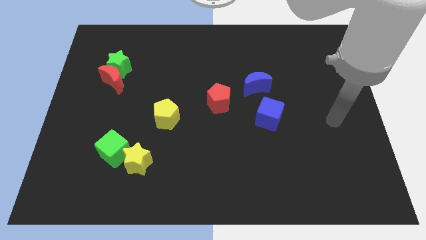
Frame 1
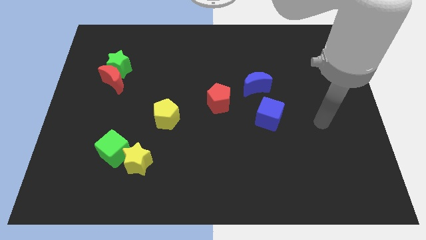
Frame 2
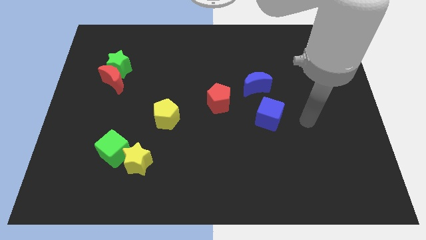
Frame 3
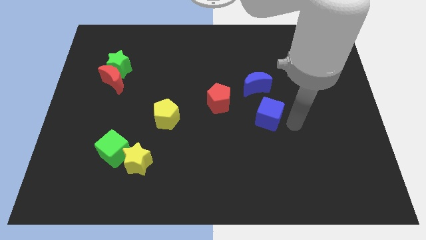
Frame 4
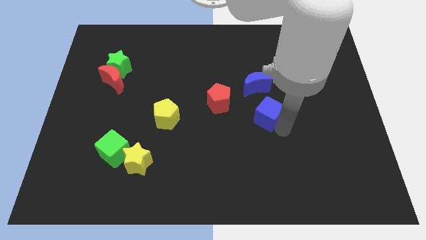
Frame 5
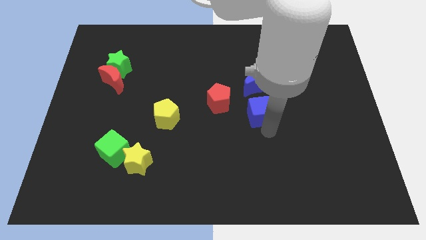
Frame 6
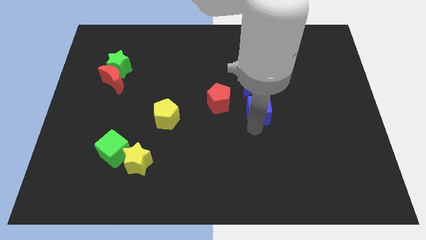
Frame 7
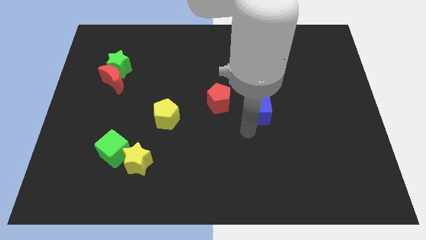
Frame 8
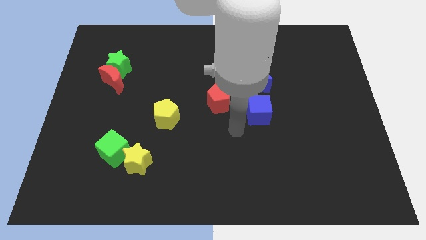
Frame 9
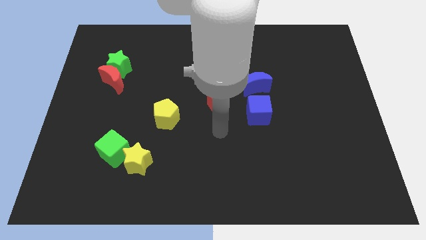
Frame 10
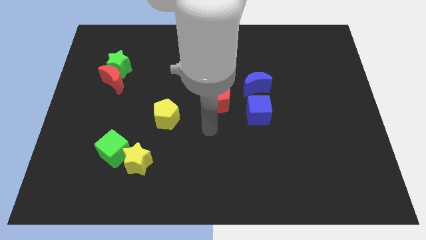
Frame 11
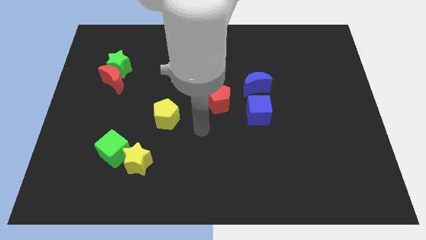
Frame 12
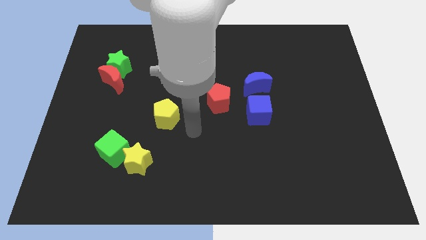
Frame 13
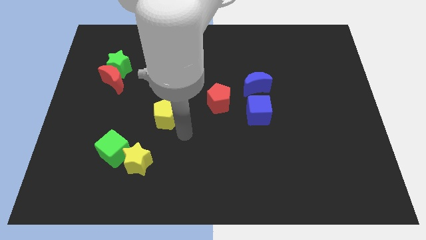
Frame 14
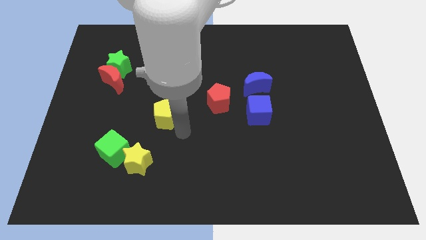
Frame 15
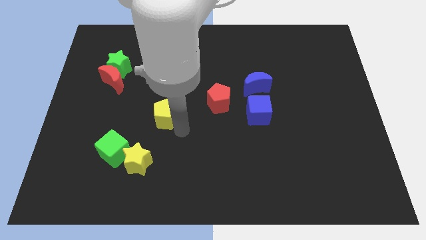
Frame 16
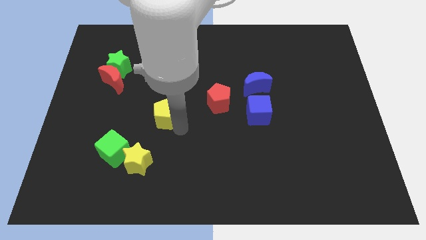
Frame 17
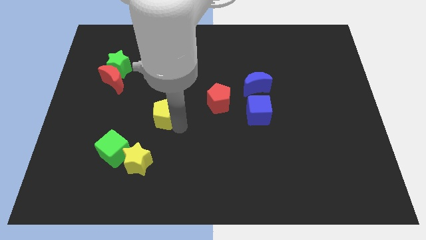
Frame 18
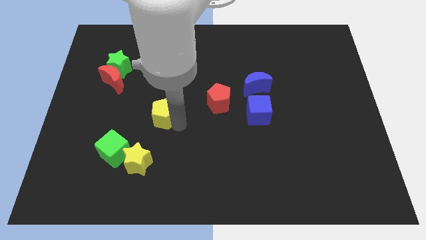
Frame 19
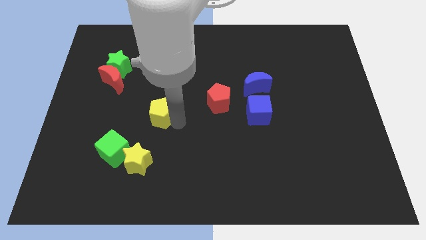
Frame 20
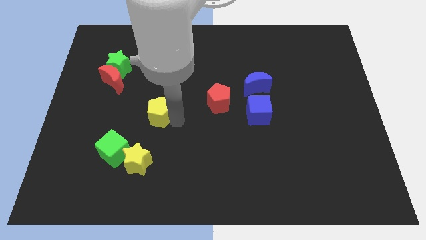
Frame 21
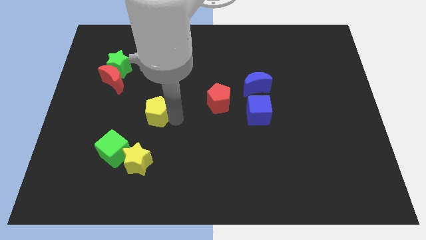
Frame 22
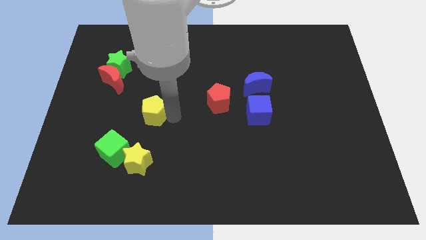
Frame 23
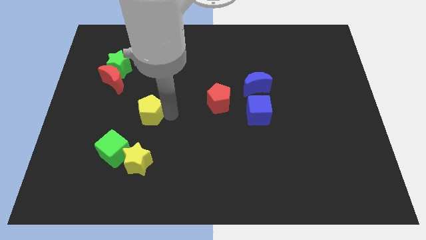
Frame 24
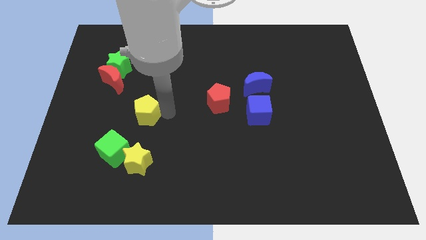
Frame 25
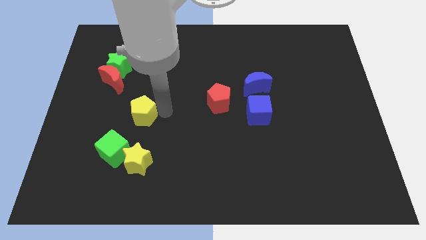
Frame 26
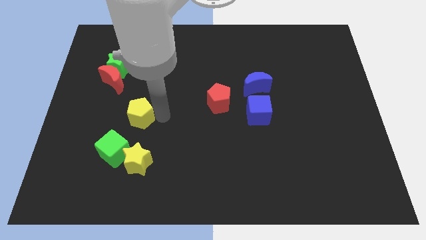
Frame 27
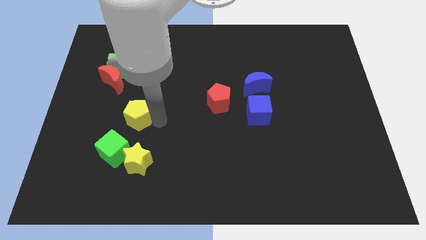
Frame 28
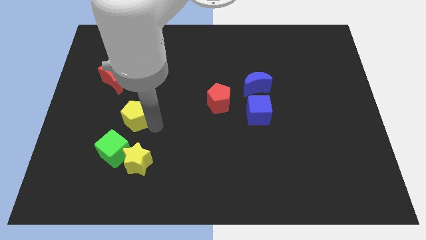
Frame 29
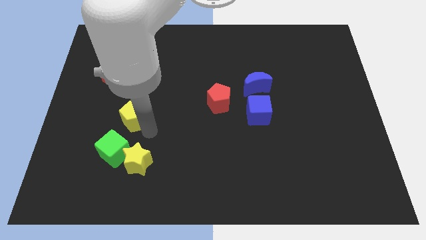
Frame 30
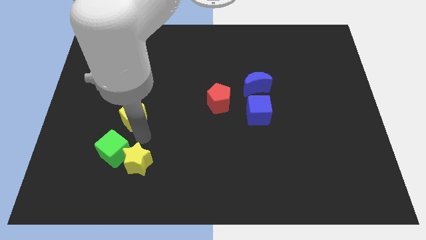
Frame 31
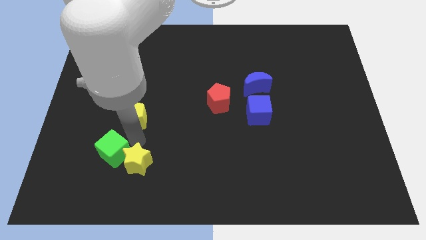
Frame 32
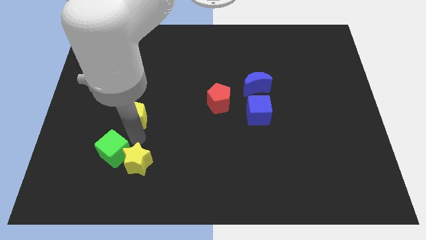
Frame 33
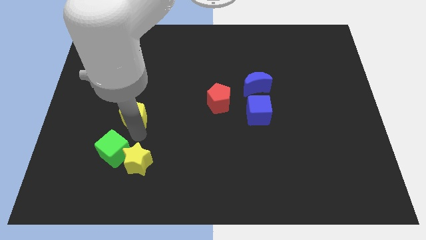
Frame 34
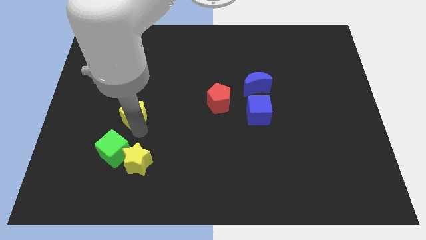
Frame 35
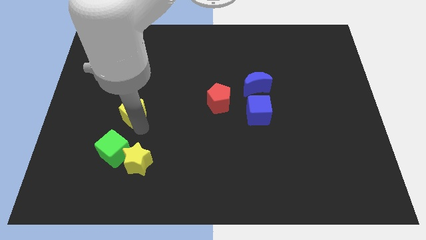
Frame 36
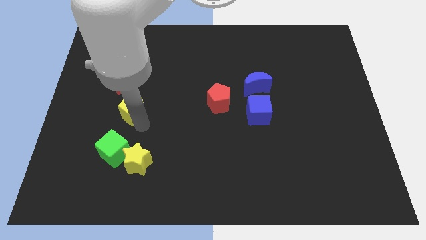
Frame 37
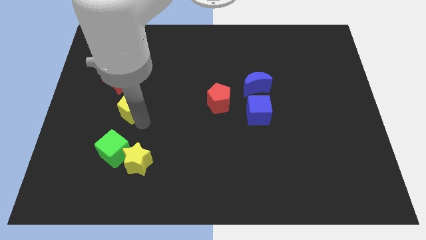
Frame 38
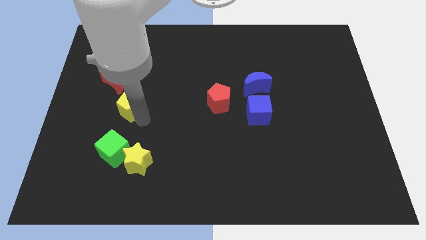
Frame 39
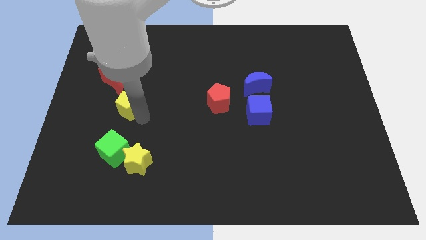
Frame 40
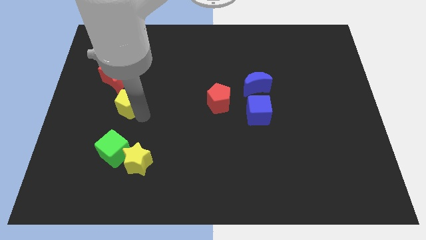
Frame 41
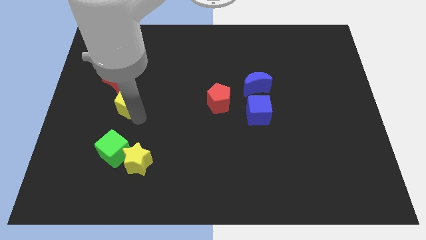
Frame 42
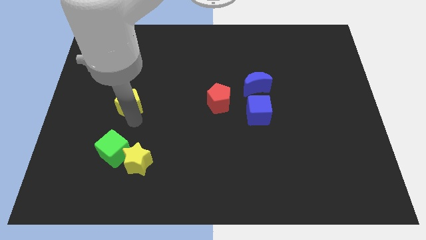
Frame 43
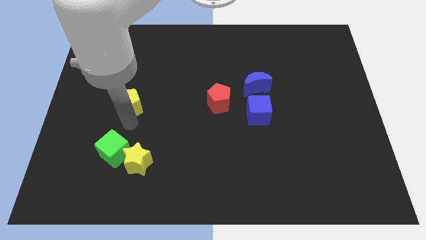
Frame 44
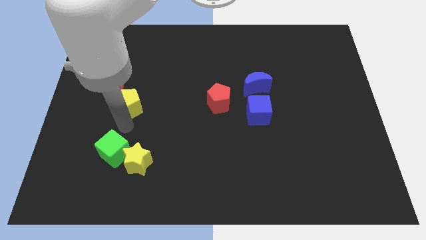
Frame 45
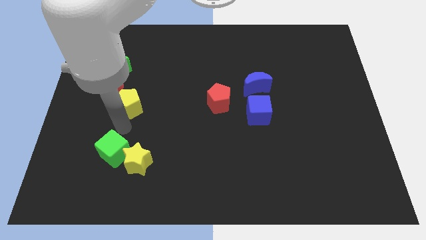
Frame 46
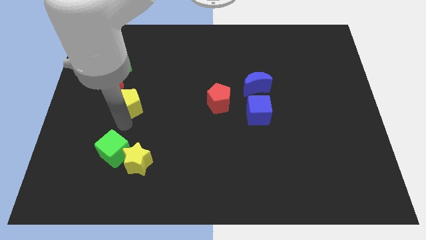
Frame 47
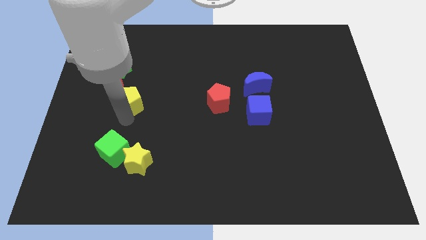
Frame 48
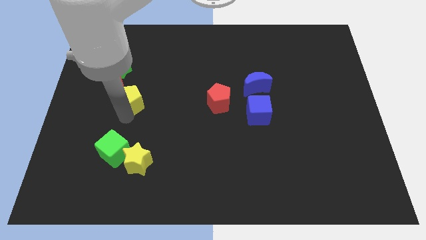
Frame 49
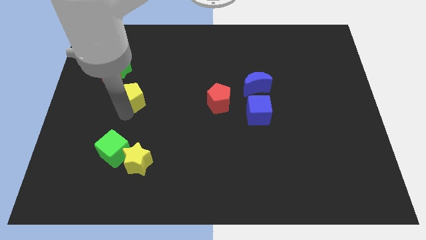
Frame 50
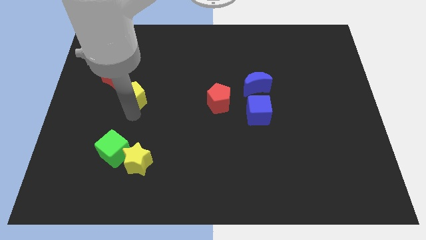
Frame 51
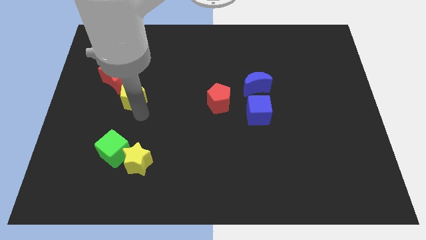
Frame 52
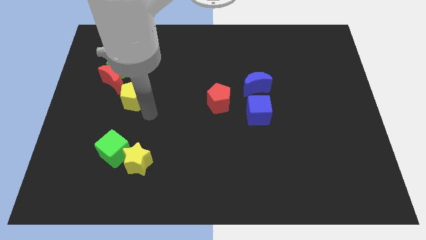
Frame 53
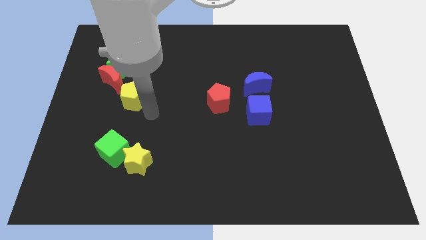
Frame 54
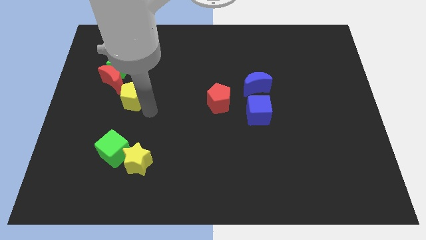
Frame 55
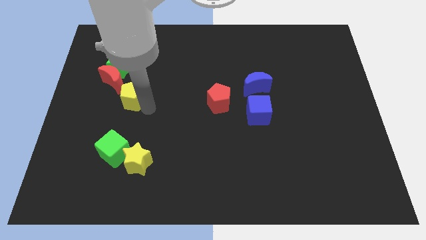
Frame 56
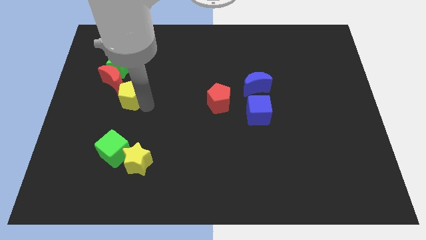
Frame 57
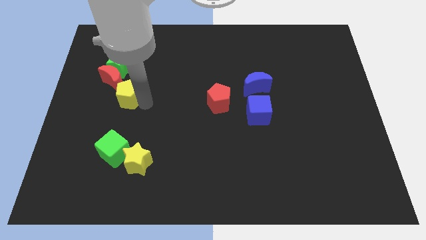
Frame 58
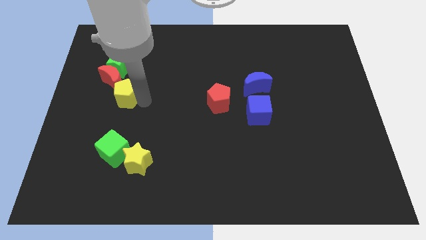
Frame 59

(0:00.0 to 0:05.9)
put the yellow pentagon towards the red moon

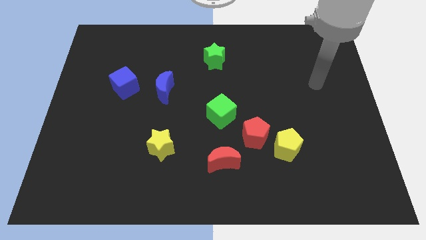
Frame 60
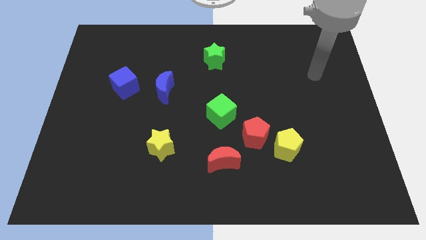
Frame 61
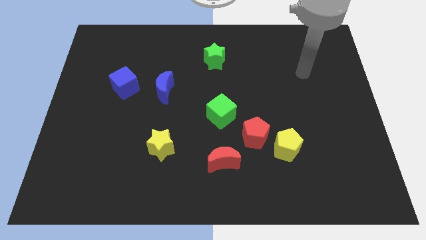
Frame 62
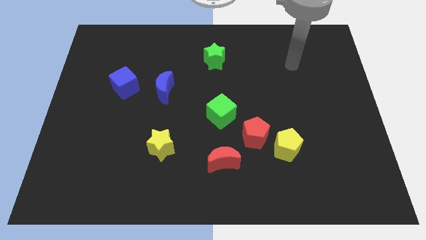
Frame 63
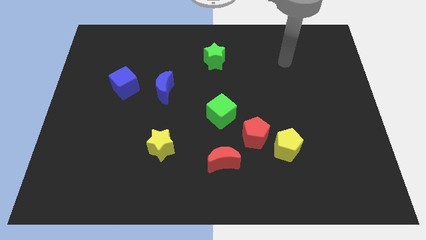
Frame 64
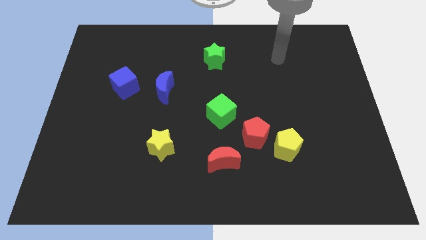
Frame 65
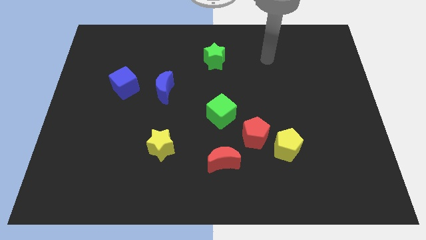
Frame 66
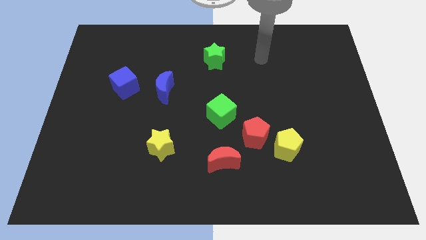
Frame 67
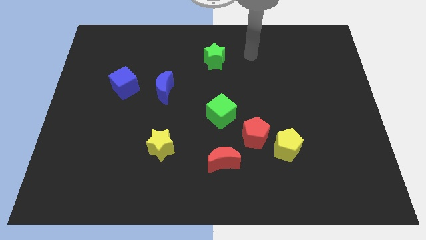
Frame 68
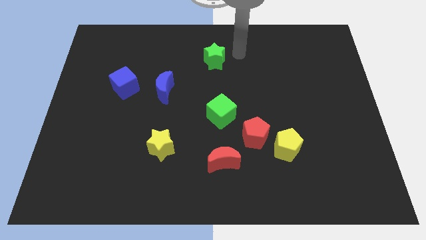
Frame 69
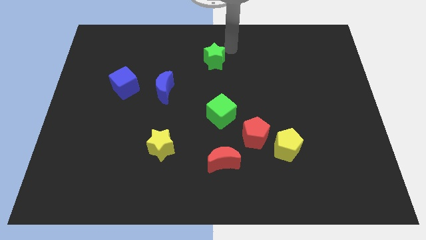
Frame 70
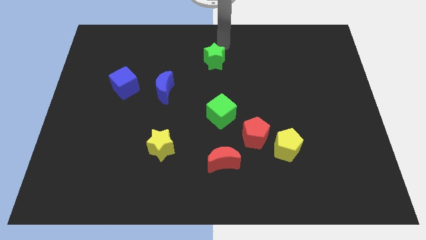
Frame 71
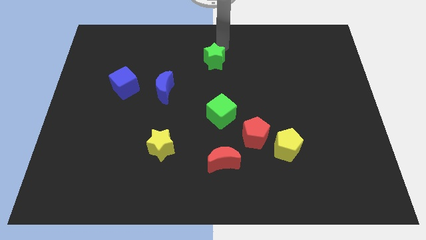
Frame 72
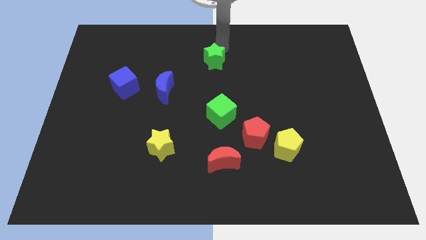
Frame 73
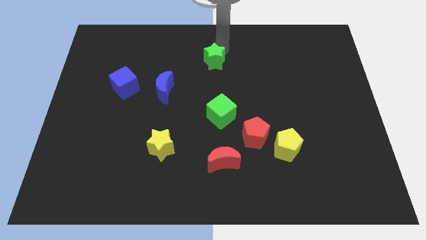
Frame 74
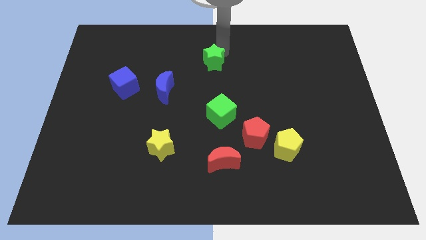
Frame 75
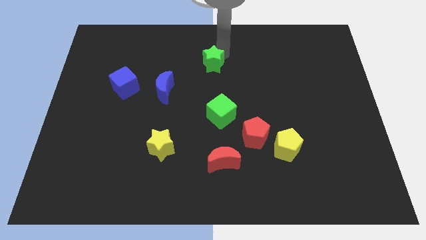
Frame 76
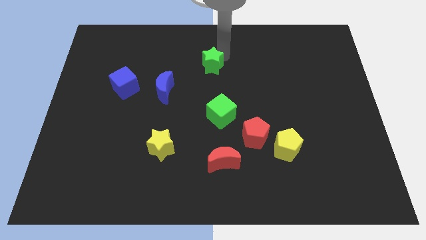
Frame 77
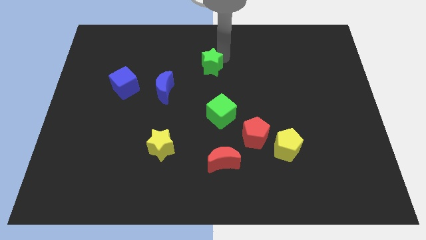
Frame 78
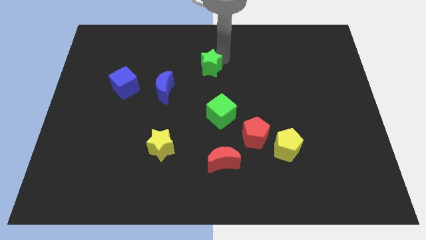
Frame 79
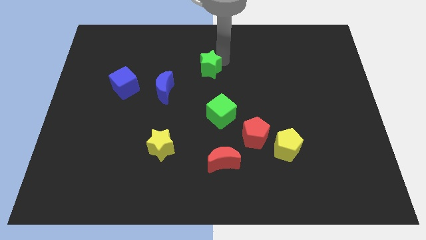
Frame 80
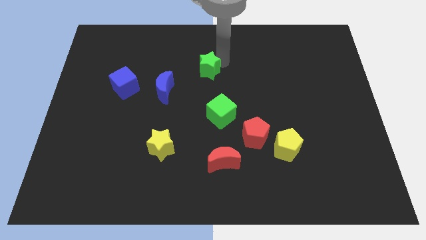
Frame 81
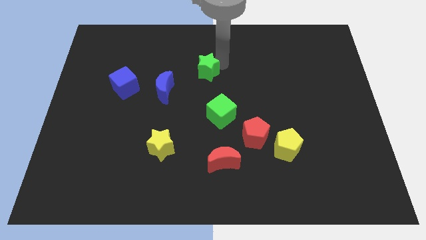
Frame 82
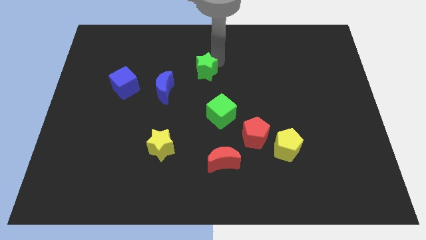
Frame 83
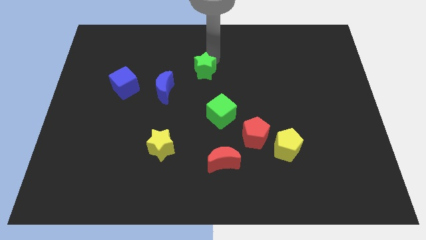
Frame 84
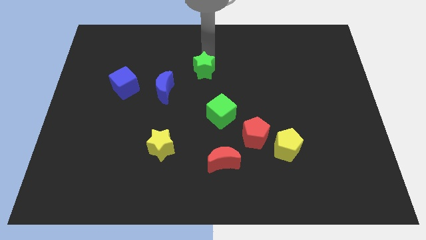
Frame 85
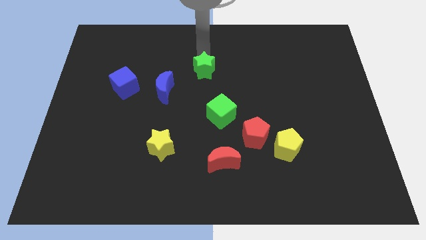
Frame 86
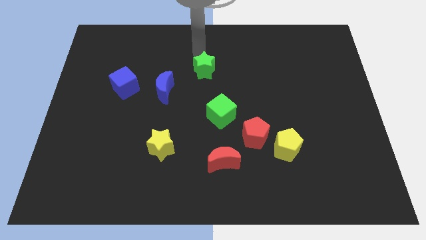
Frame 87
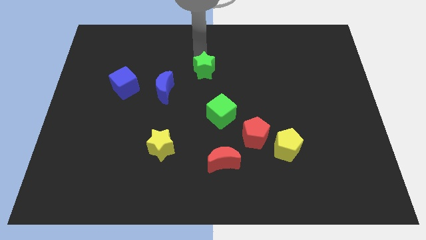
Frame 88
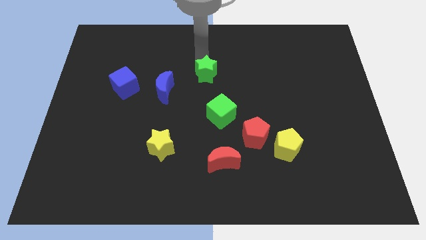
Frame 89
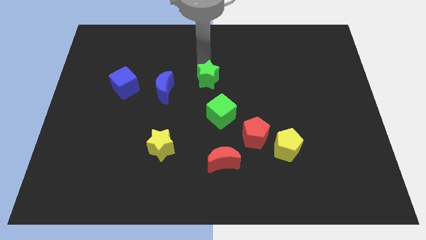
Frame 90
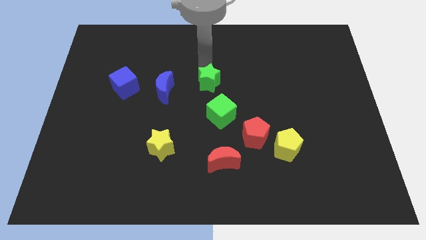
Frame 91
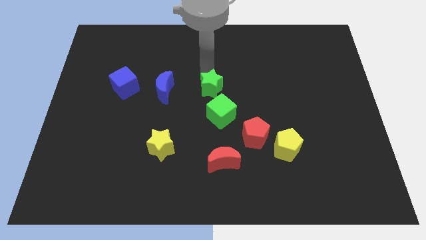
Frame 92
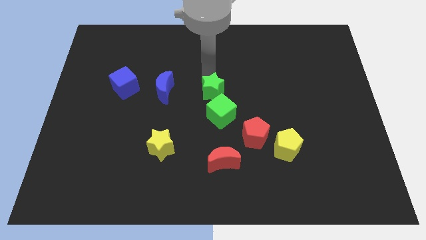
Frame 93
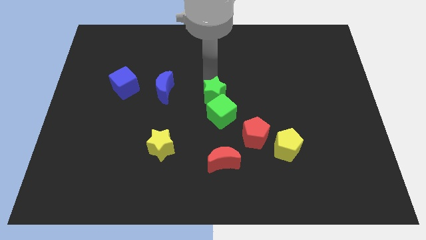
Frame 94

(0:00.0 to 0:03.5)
slide the green star towards the green cube
